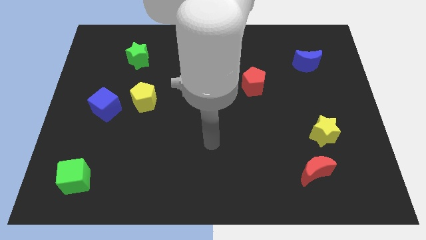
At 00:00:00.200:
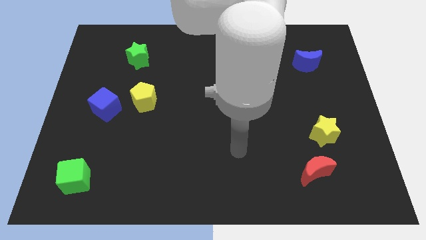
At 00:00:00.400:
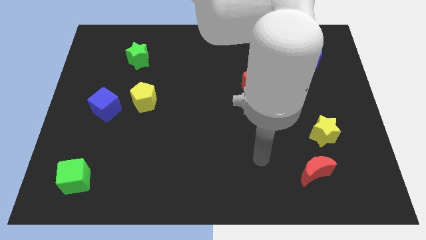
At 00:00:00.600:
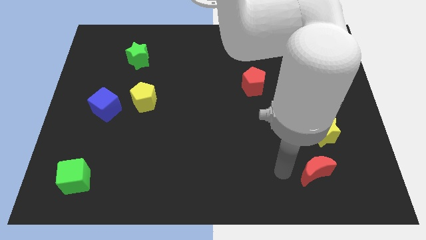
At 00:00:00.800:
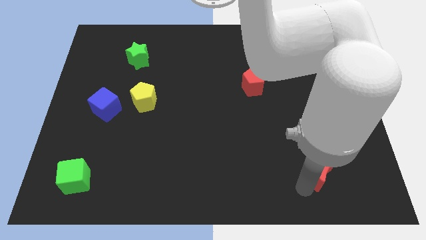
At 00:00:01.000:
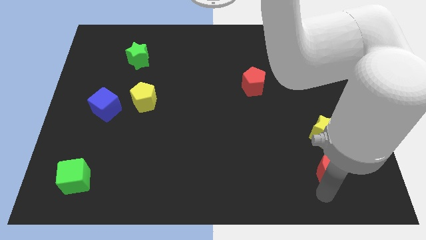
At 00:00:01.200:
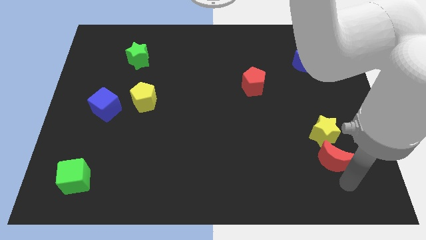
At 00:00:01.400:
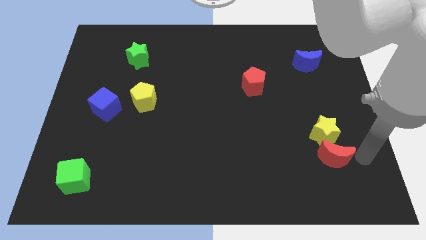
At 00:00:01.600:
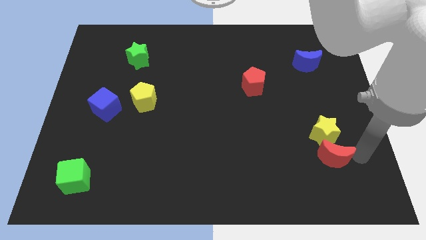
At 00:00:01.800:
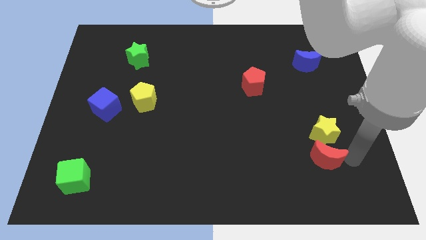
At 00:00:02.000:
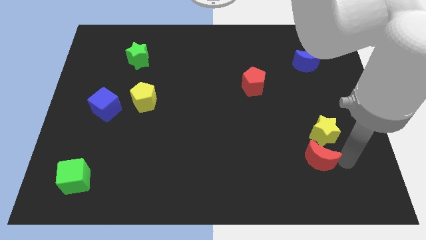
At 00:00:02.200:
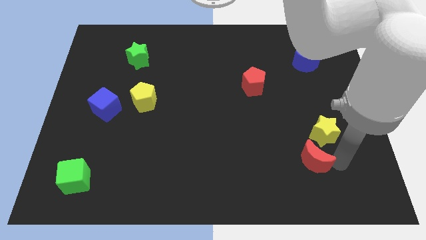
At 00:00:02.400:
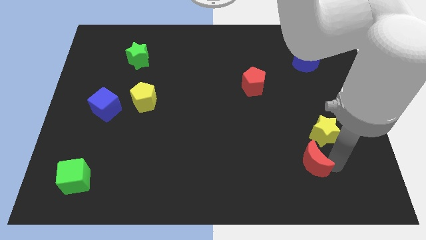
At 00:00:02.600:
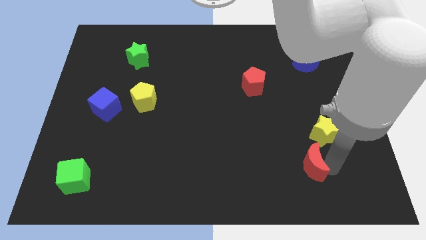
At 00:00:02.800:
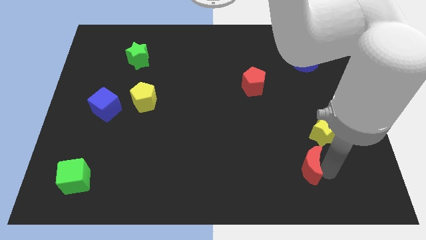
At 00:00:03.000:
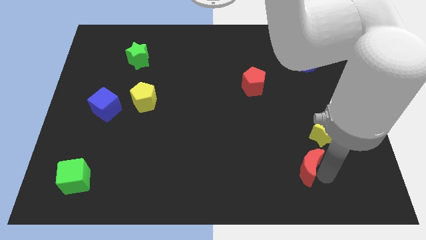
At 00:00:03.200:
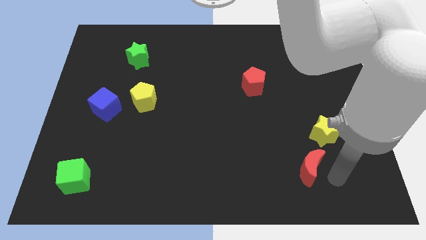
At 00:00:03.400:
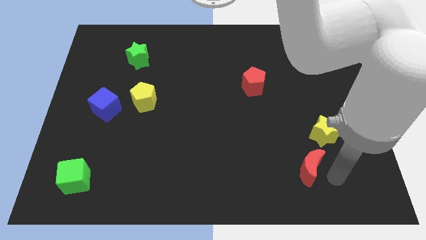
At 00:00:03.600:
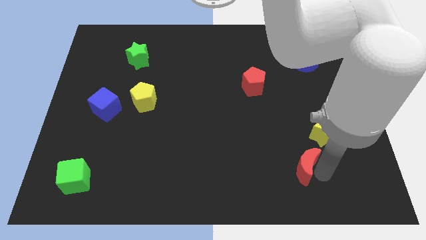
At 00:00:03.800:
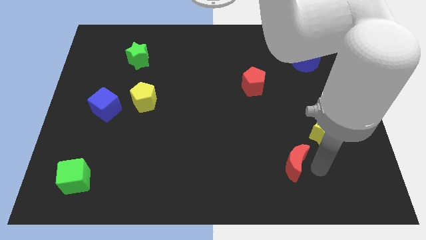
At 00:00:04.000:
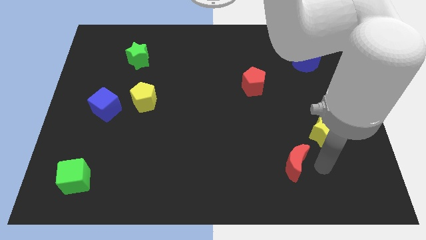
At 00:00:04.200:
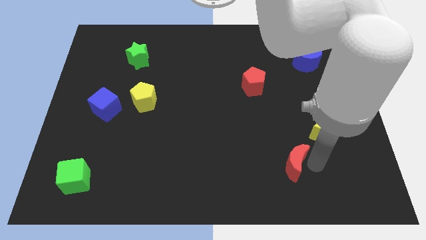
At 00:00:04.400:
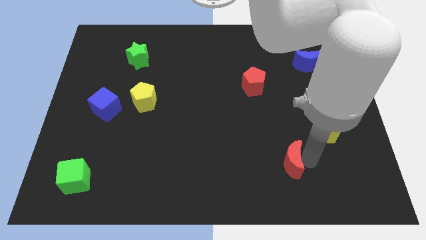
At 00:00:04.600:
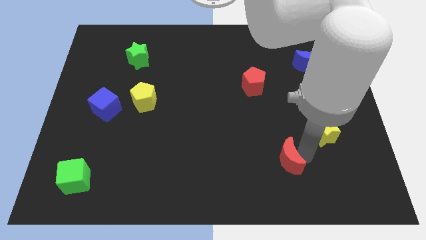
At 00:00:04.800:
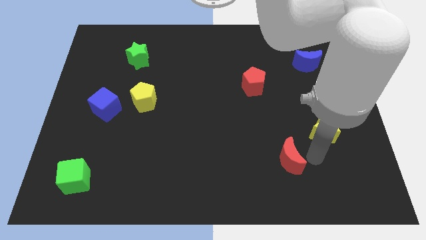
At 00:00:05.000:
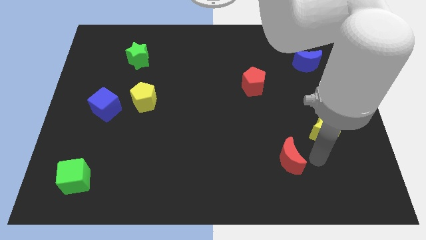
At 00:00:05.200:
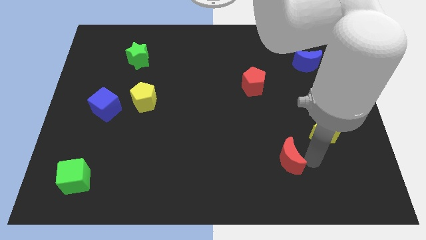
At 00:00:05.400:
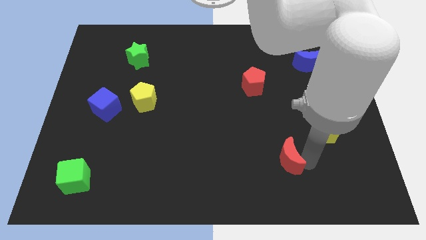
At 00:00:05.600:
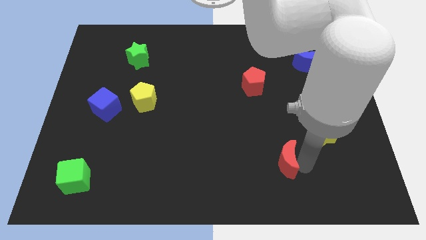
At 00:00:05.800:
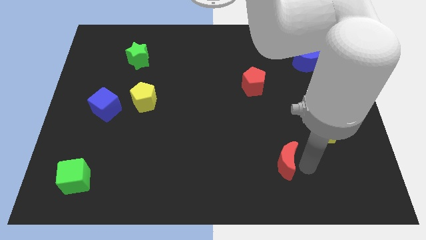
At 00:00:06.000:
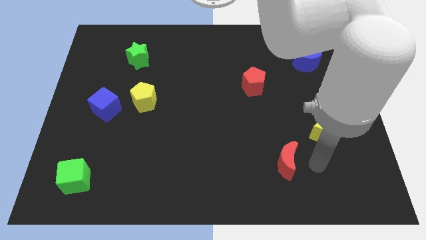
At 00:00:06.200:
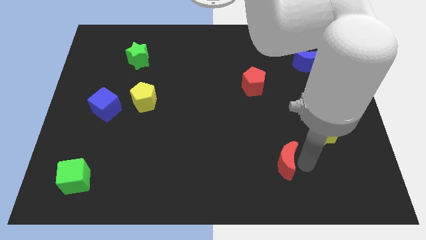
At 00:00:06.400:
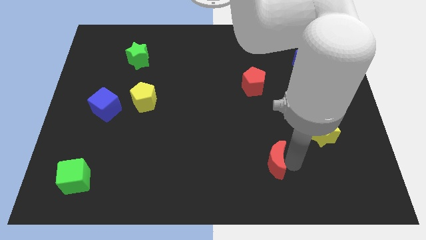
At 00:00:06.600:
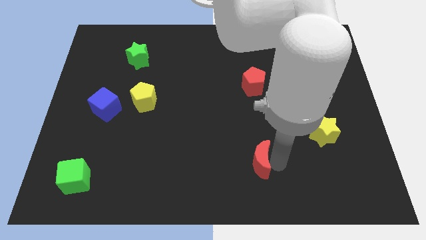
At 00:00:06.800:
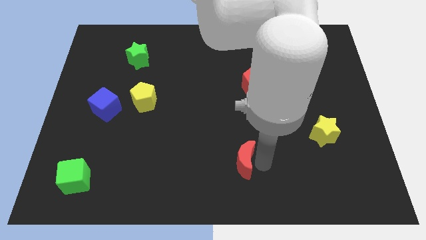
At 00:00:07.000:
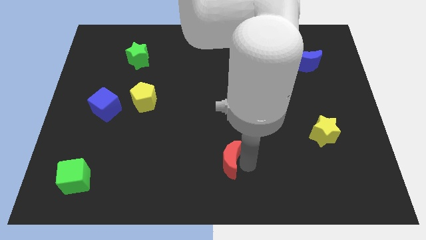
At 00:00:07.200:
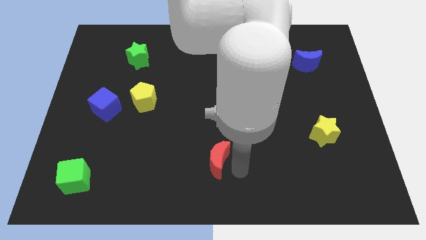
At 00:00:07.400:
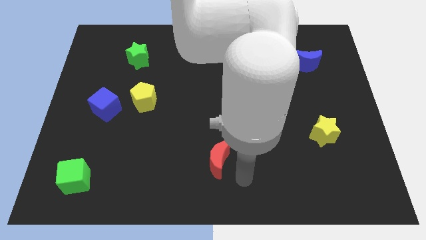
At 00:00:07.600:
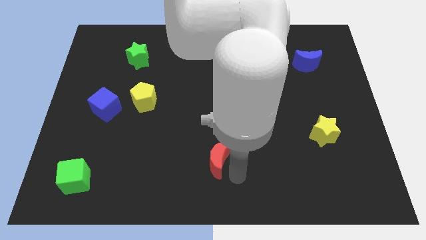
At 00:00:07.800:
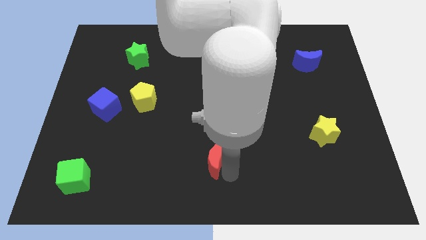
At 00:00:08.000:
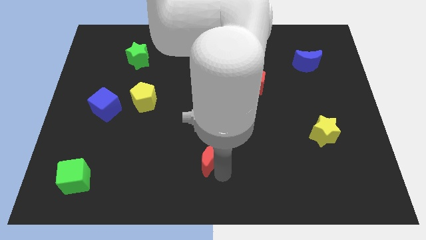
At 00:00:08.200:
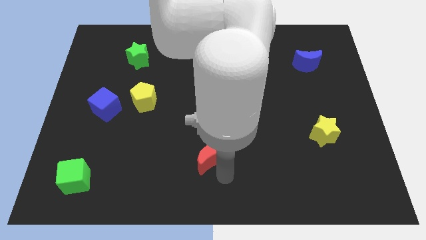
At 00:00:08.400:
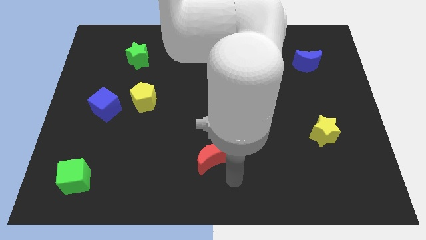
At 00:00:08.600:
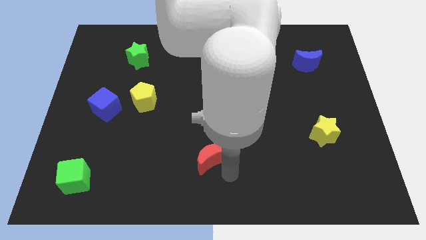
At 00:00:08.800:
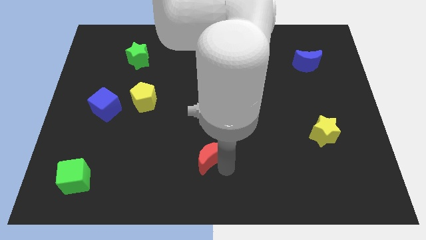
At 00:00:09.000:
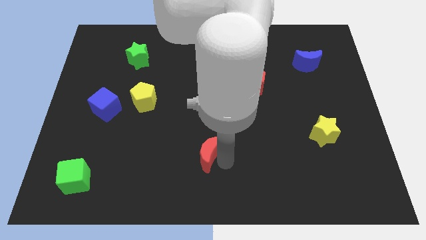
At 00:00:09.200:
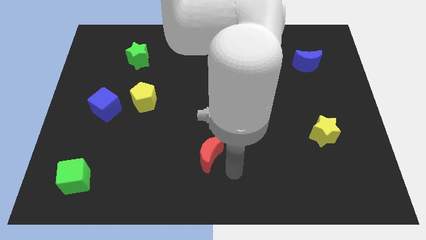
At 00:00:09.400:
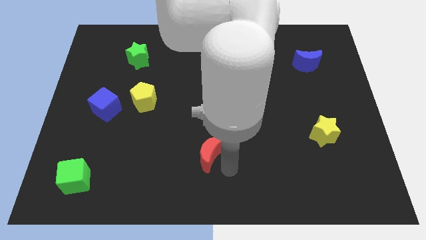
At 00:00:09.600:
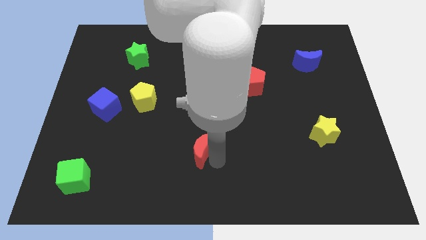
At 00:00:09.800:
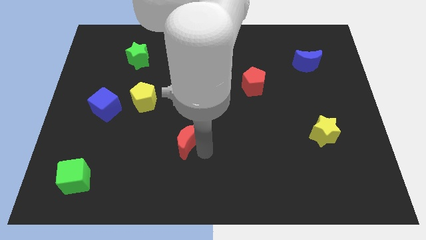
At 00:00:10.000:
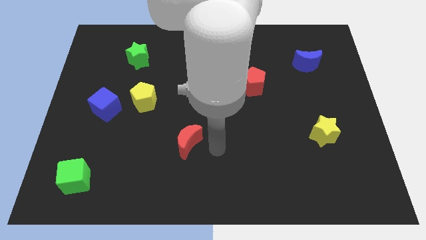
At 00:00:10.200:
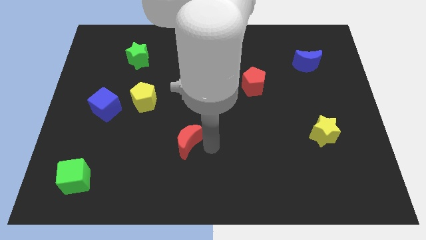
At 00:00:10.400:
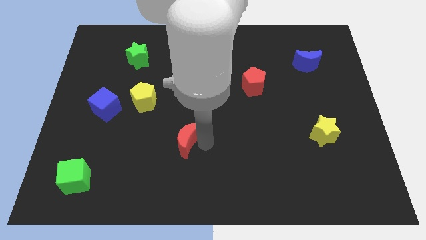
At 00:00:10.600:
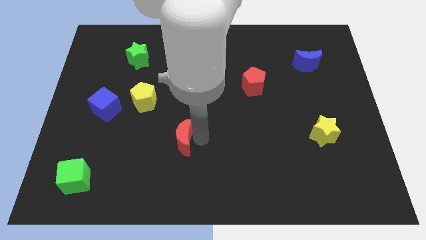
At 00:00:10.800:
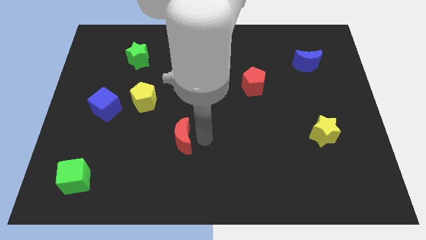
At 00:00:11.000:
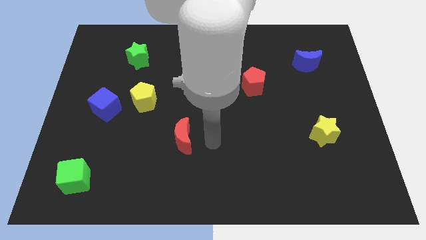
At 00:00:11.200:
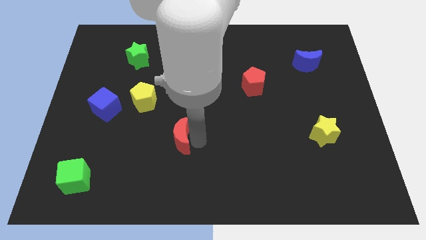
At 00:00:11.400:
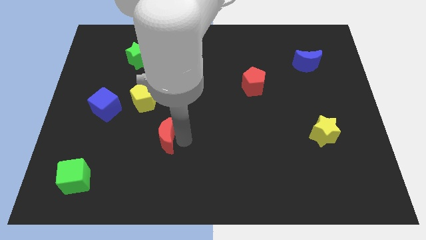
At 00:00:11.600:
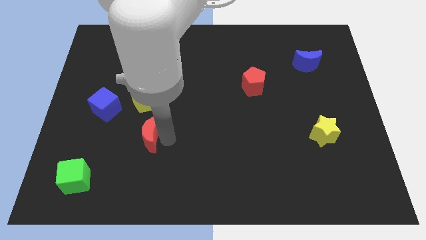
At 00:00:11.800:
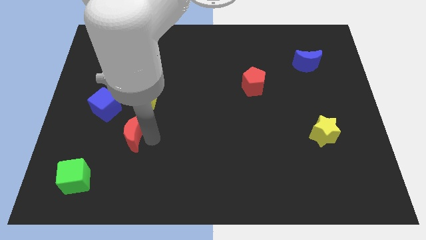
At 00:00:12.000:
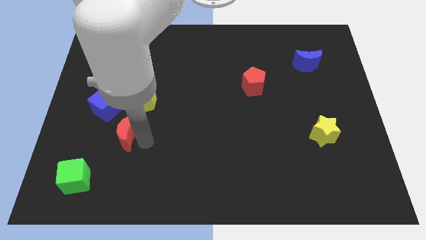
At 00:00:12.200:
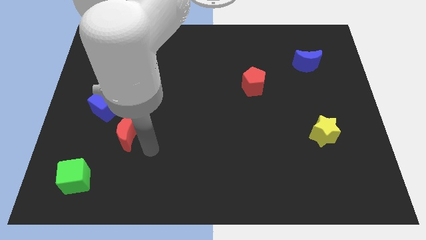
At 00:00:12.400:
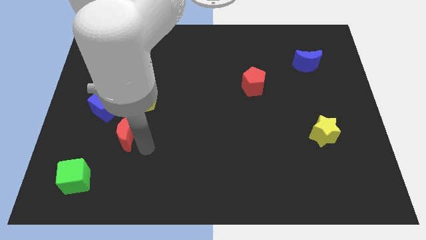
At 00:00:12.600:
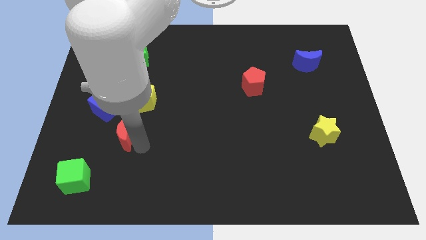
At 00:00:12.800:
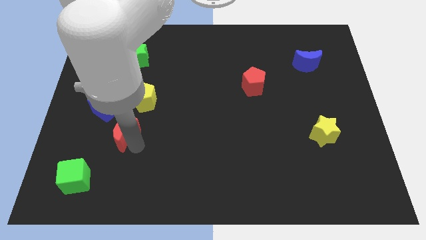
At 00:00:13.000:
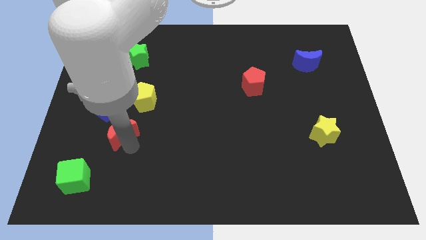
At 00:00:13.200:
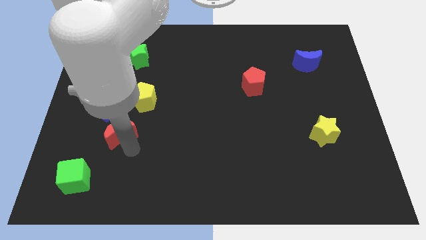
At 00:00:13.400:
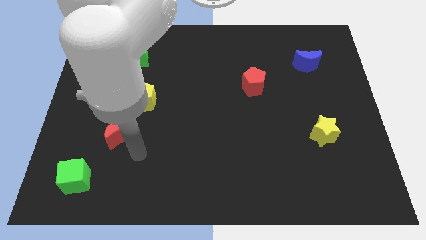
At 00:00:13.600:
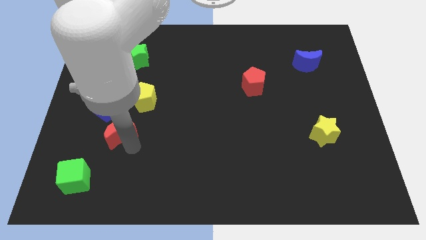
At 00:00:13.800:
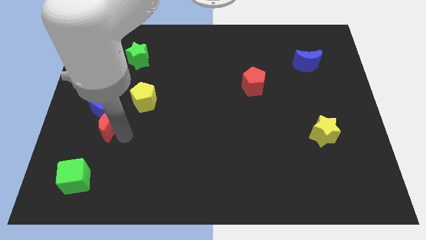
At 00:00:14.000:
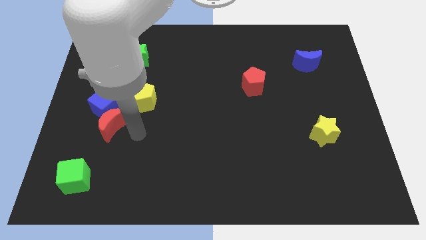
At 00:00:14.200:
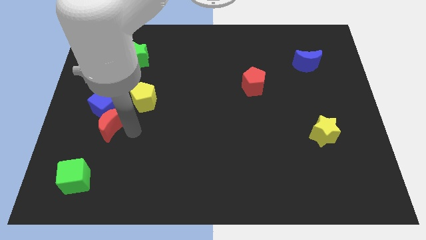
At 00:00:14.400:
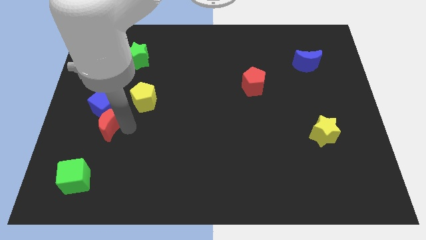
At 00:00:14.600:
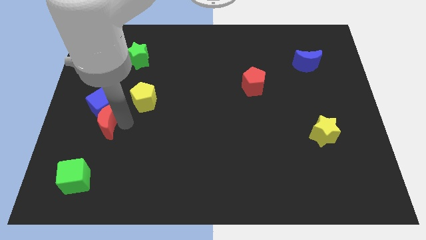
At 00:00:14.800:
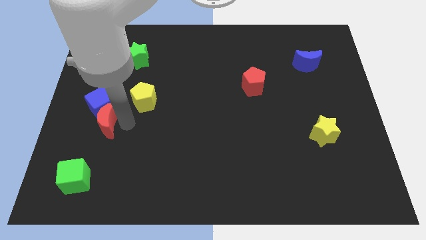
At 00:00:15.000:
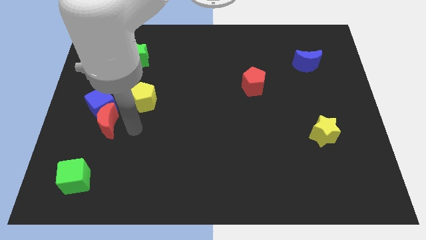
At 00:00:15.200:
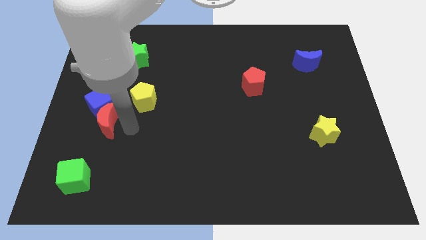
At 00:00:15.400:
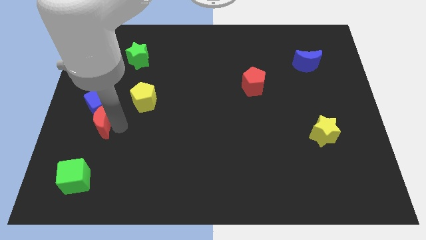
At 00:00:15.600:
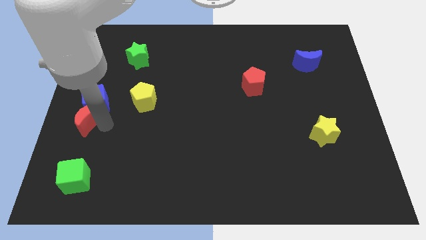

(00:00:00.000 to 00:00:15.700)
push the red moon to the center left
